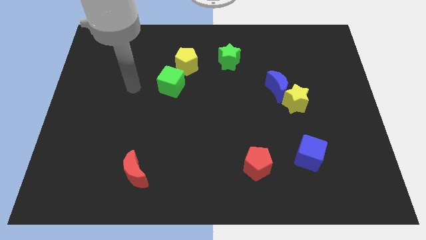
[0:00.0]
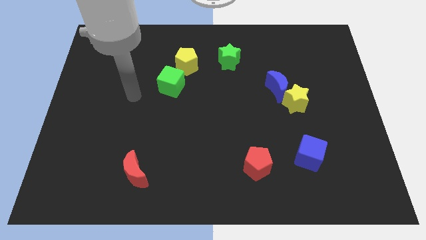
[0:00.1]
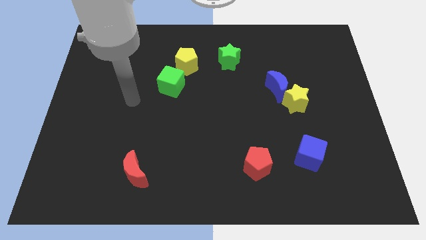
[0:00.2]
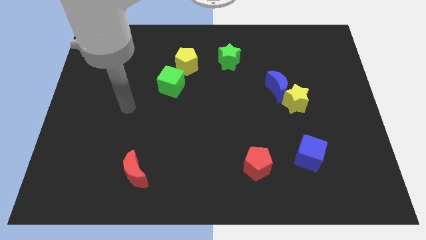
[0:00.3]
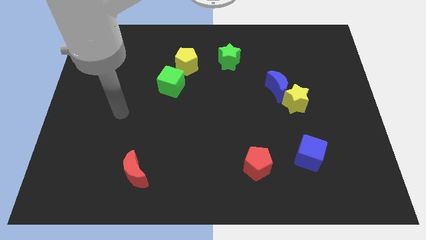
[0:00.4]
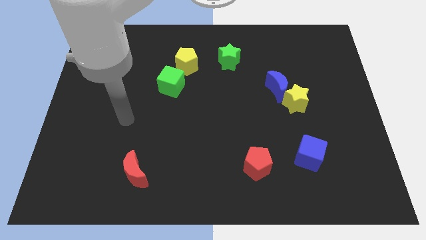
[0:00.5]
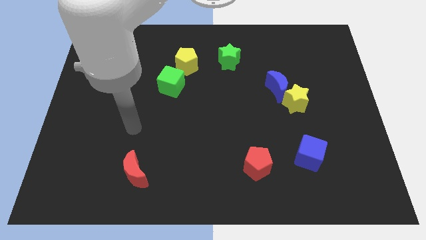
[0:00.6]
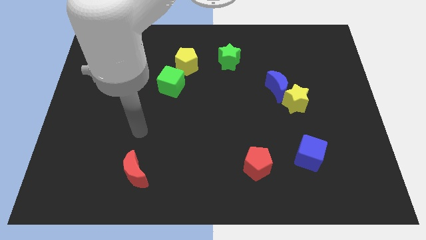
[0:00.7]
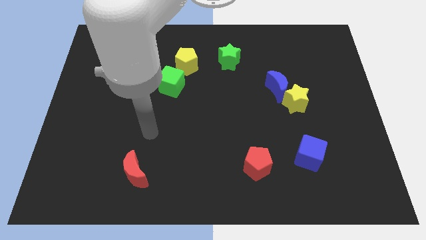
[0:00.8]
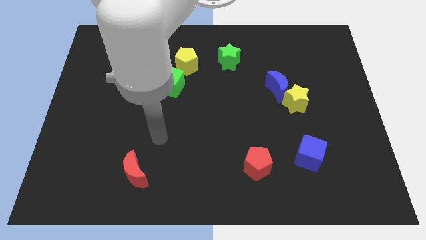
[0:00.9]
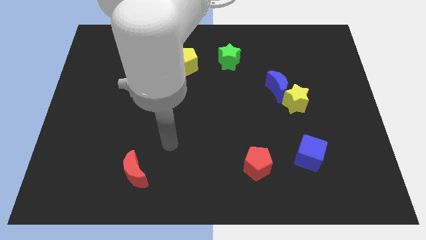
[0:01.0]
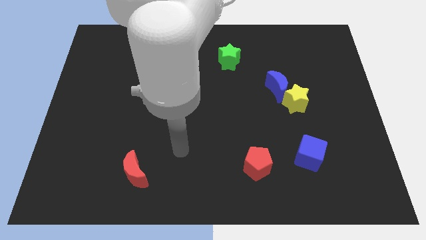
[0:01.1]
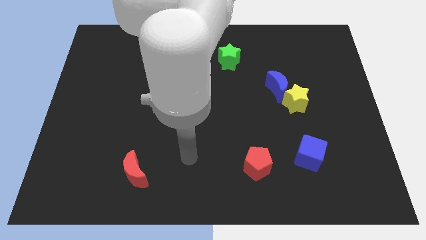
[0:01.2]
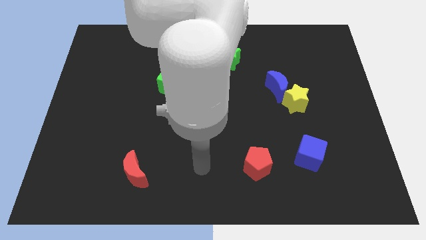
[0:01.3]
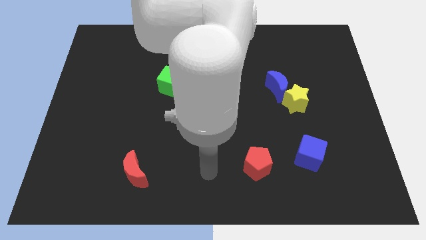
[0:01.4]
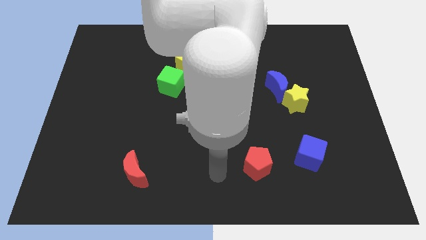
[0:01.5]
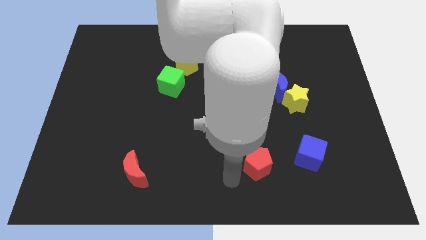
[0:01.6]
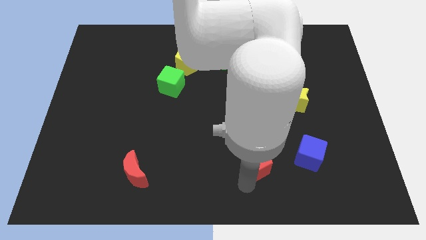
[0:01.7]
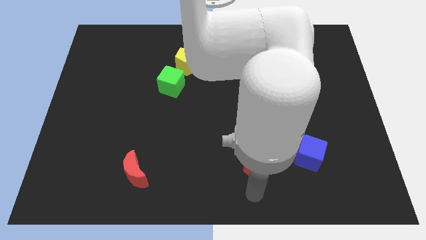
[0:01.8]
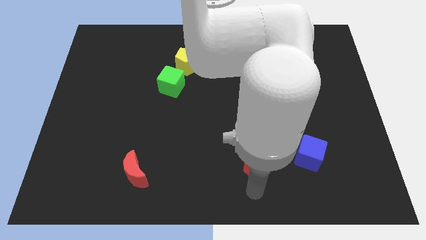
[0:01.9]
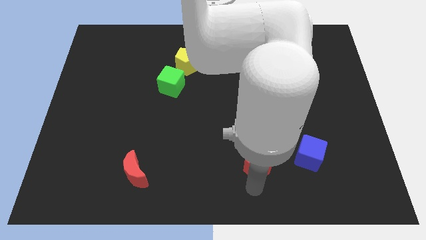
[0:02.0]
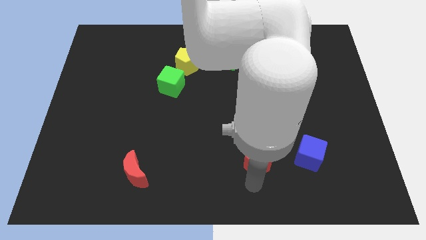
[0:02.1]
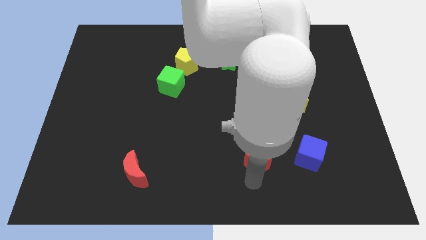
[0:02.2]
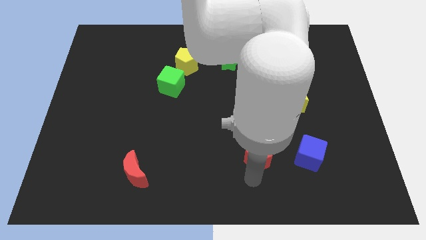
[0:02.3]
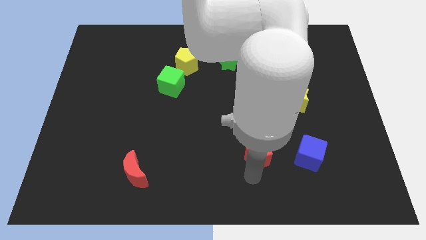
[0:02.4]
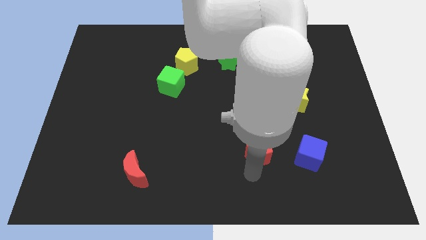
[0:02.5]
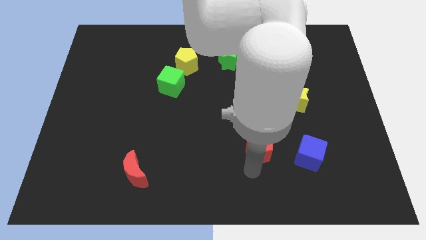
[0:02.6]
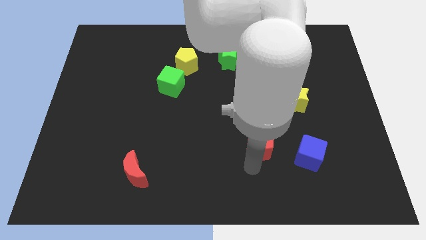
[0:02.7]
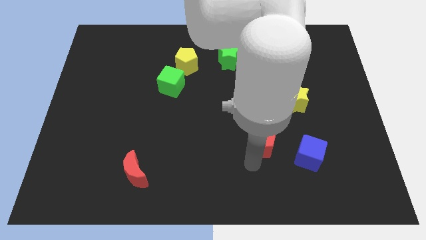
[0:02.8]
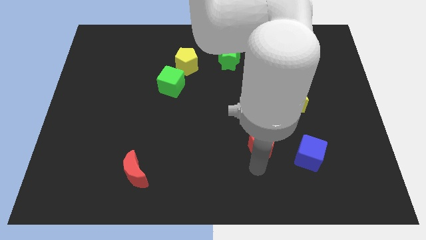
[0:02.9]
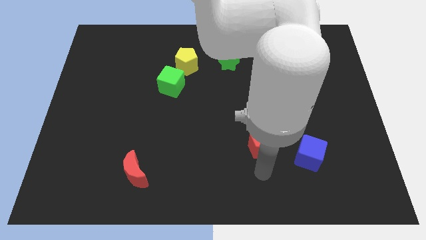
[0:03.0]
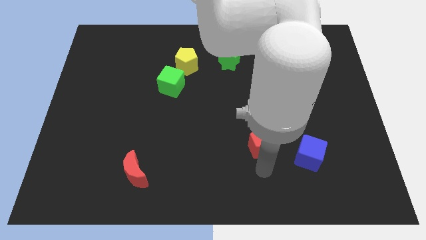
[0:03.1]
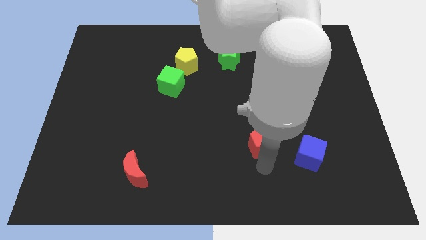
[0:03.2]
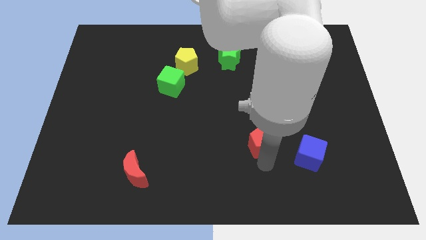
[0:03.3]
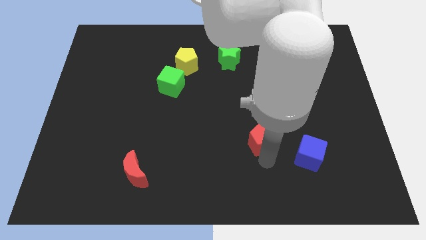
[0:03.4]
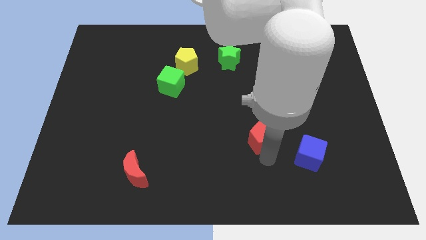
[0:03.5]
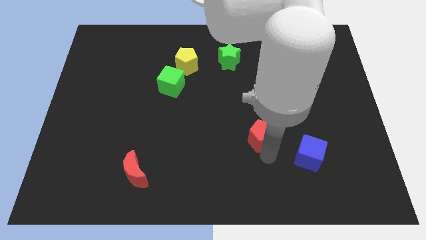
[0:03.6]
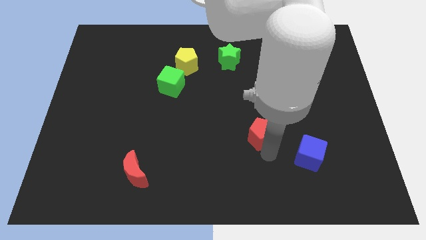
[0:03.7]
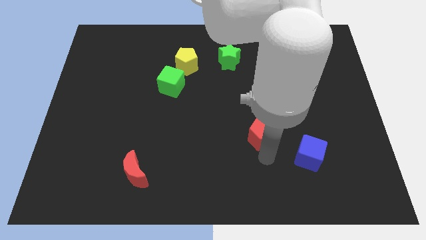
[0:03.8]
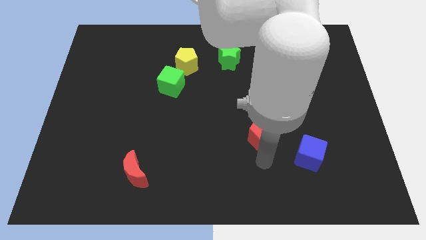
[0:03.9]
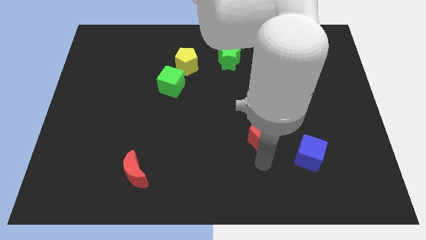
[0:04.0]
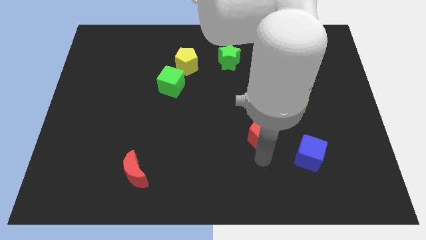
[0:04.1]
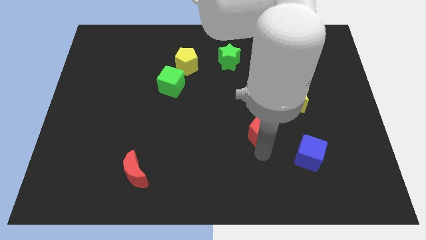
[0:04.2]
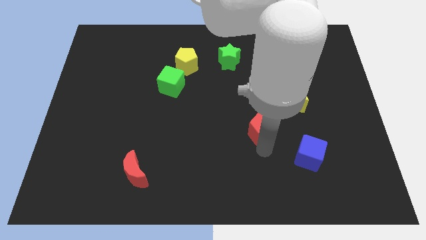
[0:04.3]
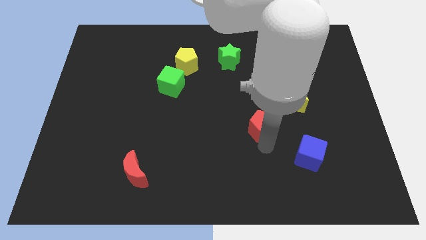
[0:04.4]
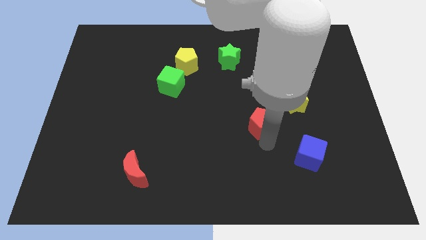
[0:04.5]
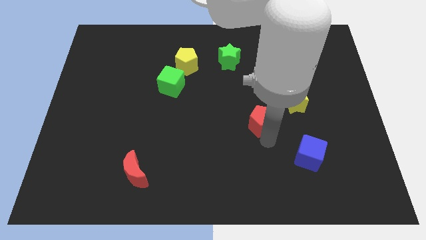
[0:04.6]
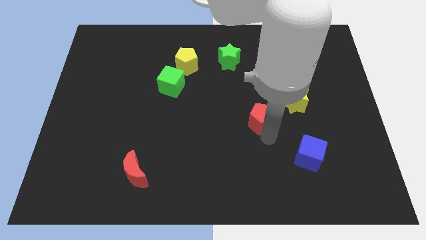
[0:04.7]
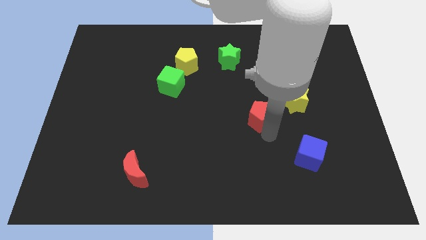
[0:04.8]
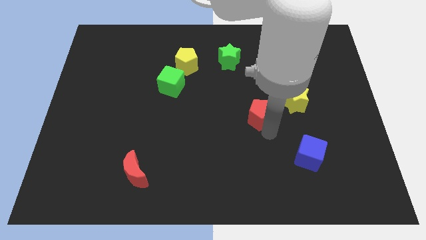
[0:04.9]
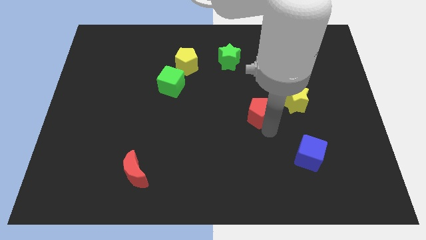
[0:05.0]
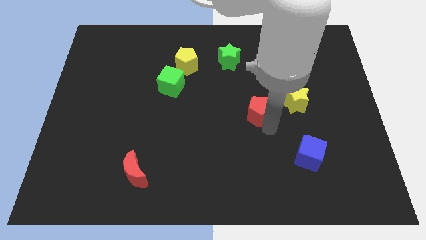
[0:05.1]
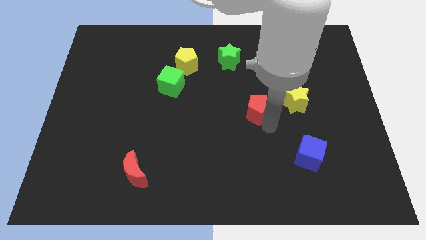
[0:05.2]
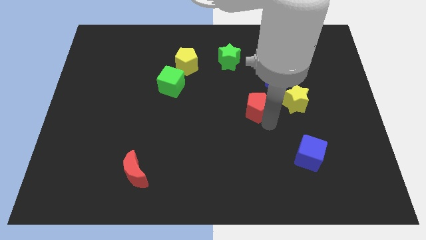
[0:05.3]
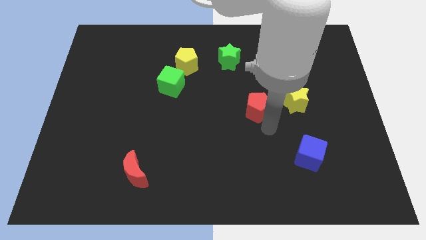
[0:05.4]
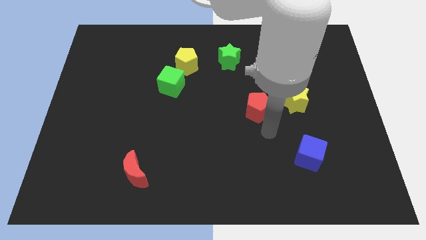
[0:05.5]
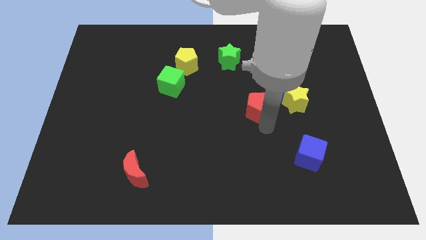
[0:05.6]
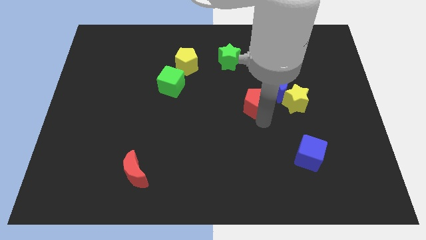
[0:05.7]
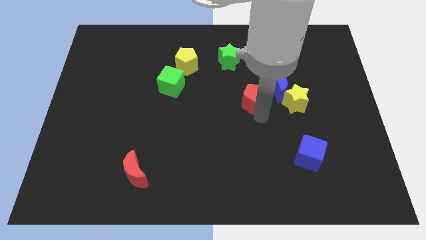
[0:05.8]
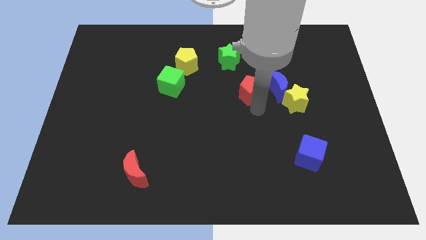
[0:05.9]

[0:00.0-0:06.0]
slide the red pentagon upwards

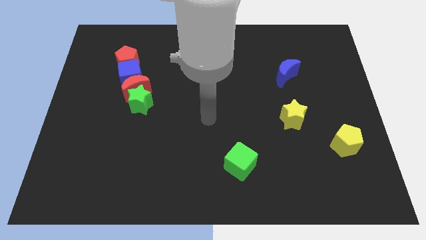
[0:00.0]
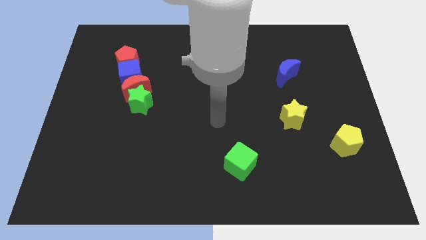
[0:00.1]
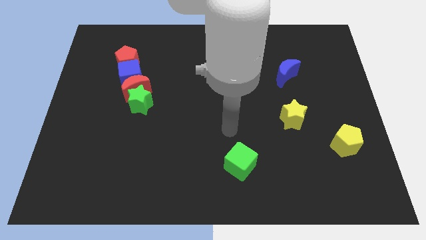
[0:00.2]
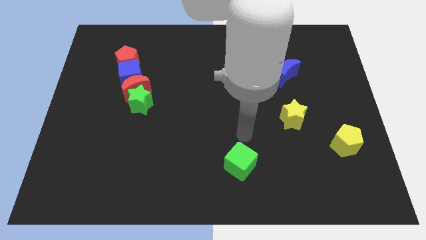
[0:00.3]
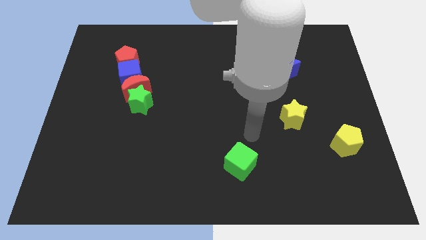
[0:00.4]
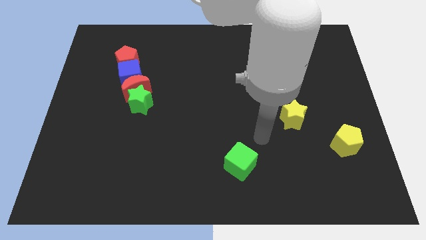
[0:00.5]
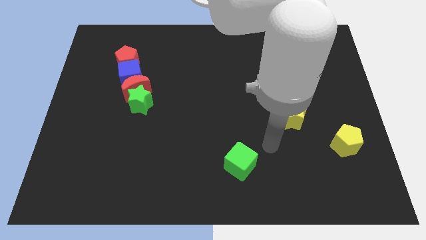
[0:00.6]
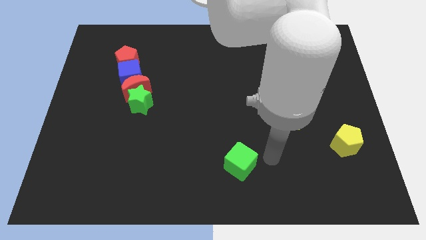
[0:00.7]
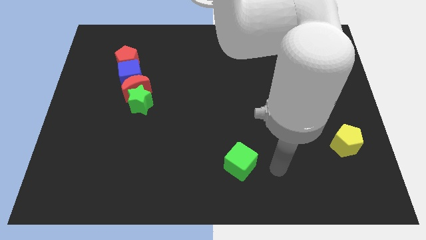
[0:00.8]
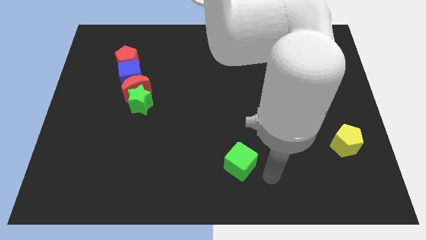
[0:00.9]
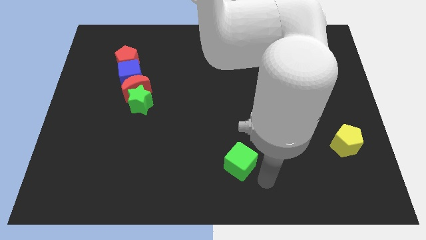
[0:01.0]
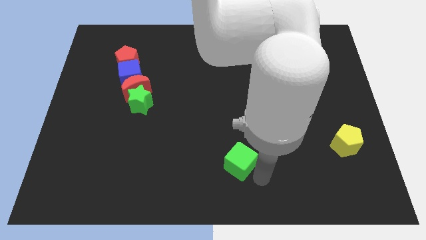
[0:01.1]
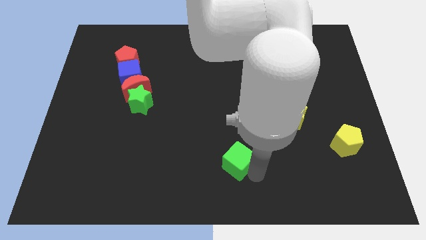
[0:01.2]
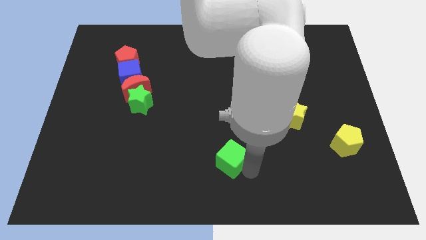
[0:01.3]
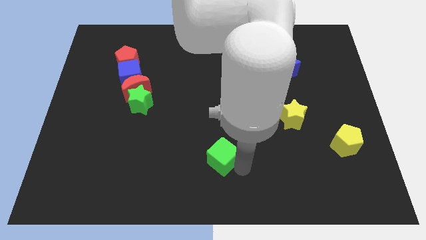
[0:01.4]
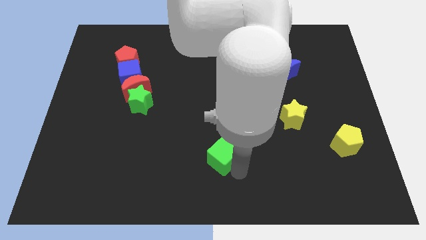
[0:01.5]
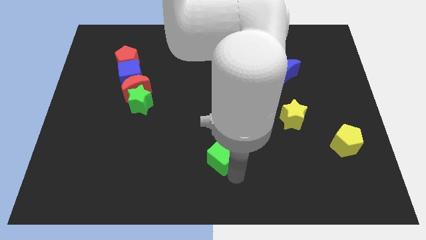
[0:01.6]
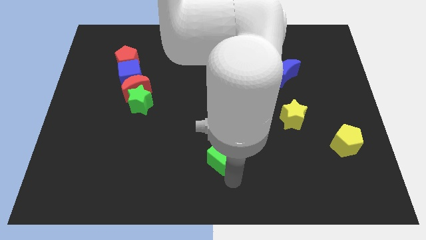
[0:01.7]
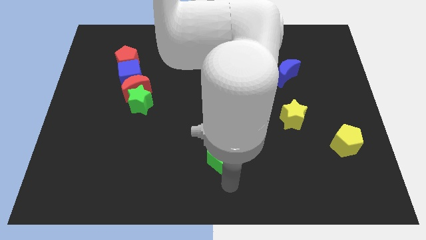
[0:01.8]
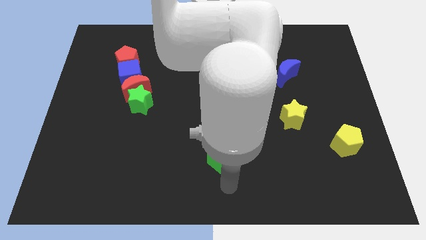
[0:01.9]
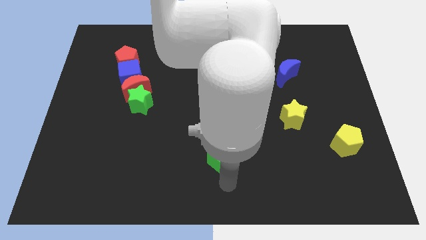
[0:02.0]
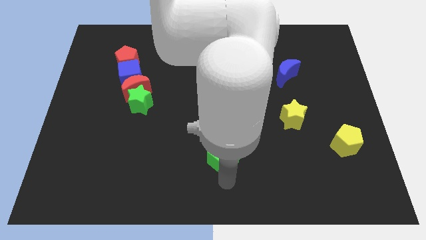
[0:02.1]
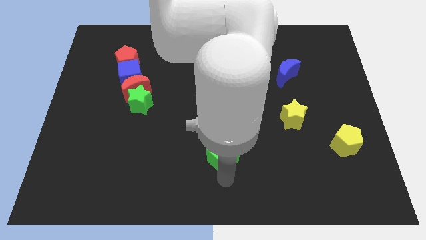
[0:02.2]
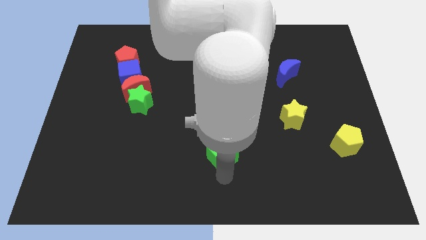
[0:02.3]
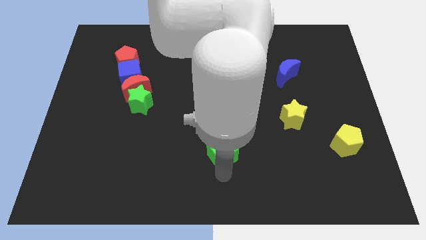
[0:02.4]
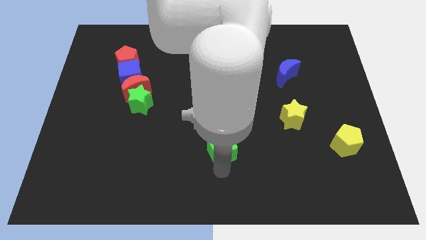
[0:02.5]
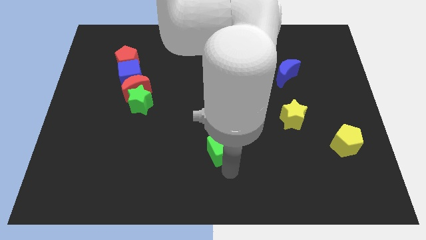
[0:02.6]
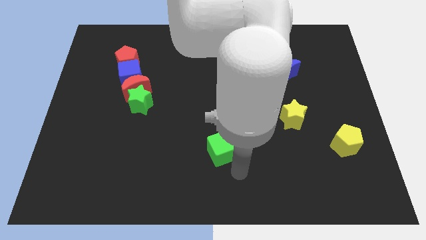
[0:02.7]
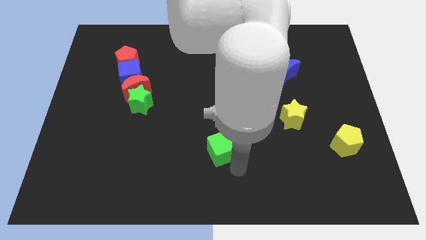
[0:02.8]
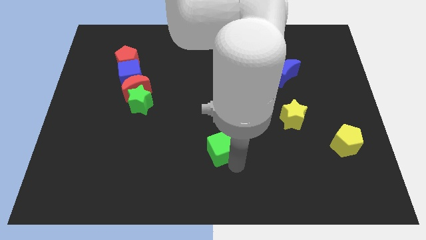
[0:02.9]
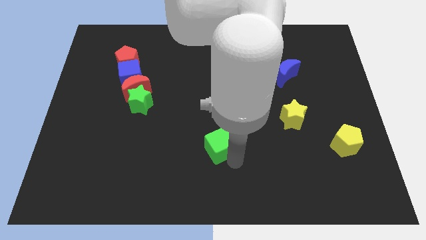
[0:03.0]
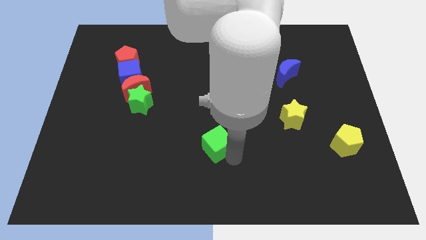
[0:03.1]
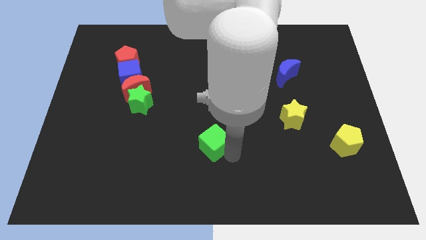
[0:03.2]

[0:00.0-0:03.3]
move the green cube a little bit up and to the left
